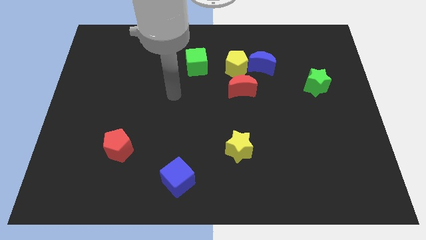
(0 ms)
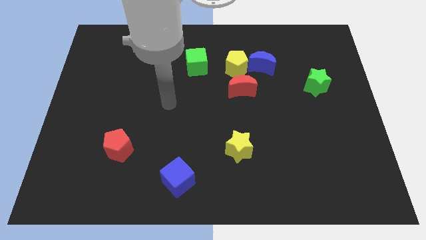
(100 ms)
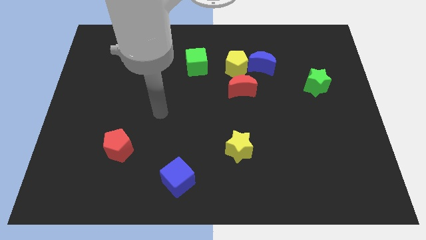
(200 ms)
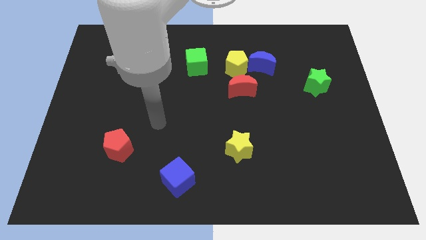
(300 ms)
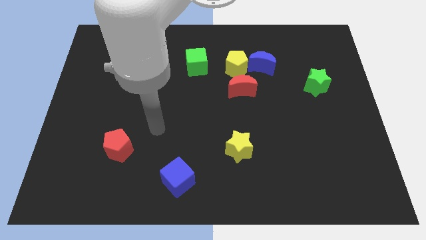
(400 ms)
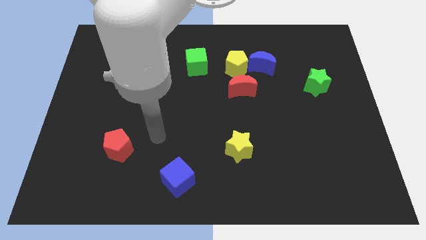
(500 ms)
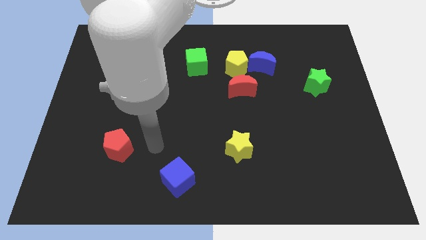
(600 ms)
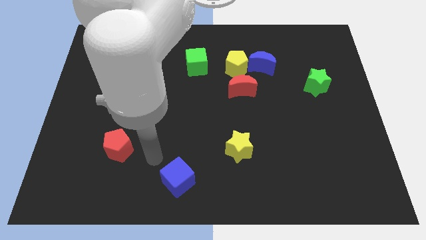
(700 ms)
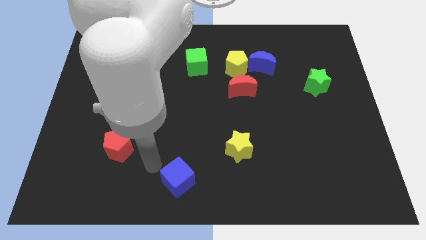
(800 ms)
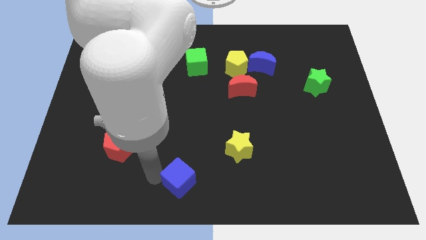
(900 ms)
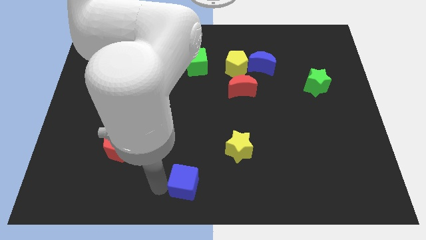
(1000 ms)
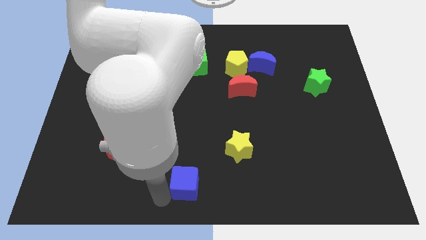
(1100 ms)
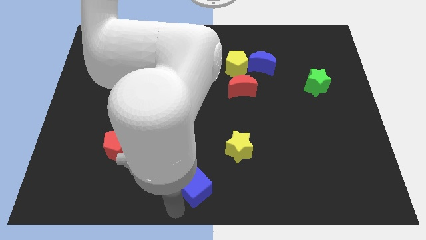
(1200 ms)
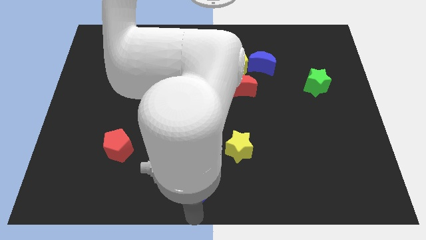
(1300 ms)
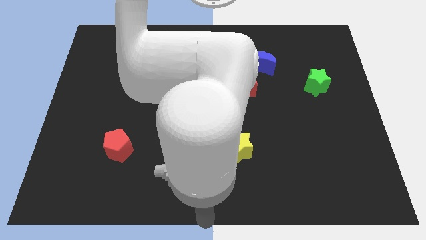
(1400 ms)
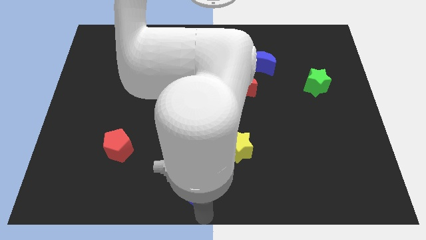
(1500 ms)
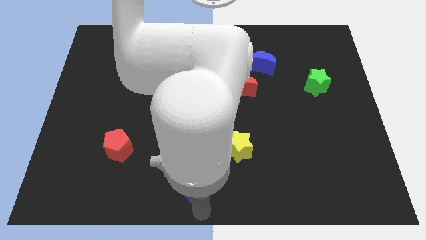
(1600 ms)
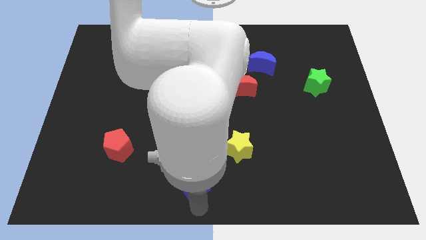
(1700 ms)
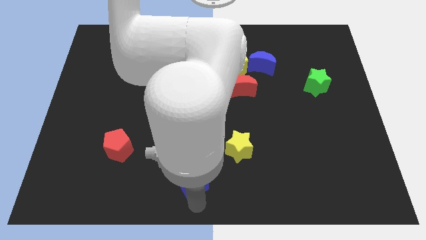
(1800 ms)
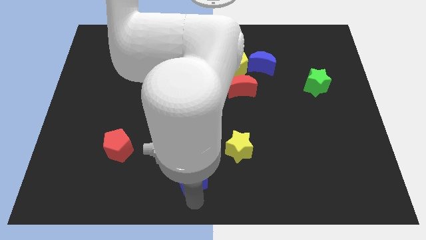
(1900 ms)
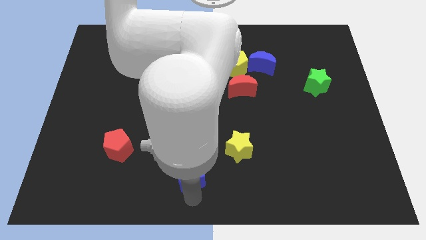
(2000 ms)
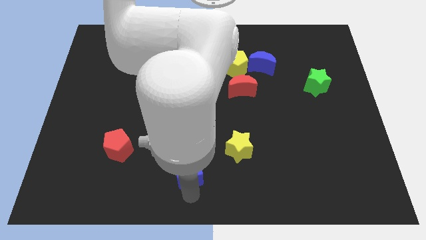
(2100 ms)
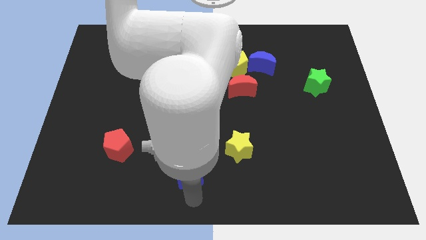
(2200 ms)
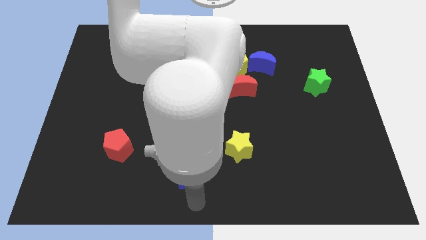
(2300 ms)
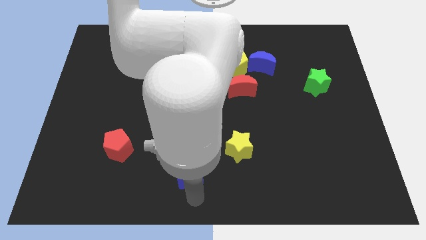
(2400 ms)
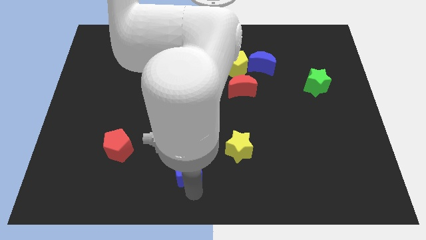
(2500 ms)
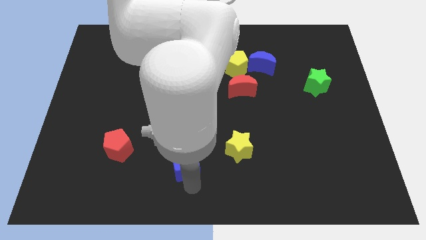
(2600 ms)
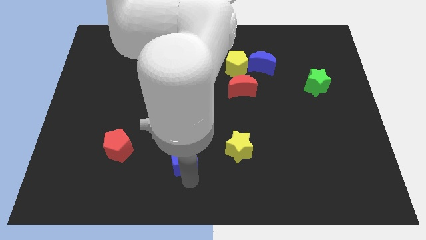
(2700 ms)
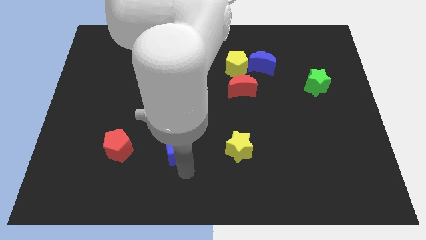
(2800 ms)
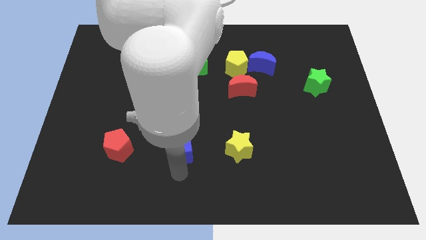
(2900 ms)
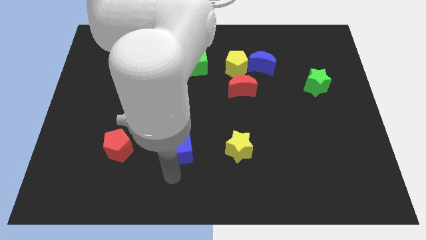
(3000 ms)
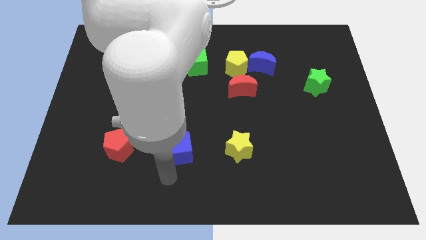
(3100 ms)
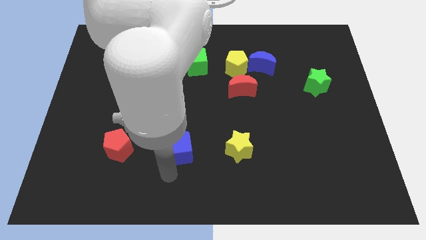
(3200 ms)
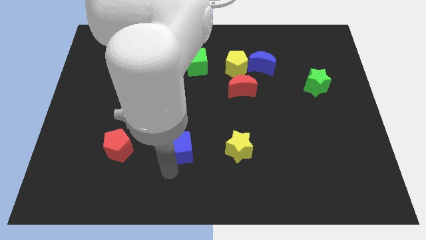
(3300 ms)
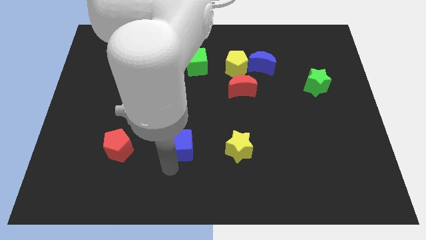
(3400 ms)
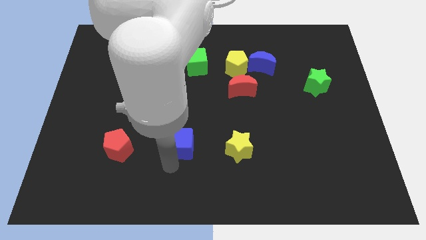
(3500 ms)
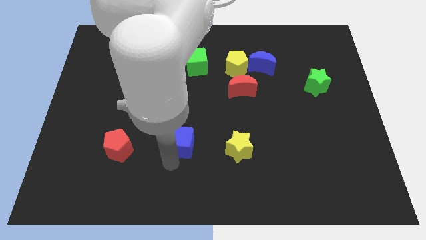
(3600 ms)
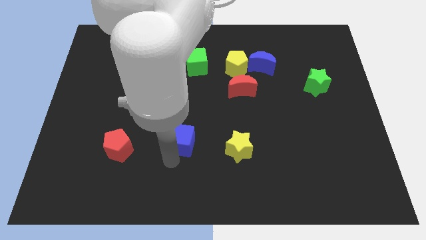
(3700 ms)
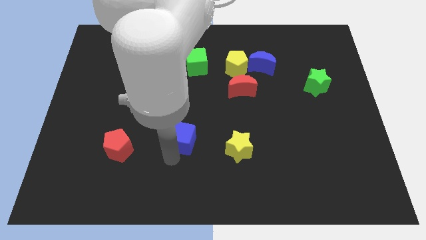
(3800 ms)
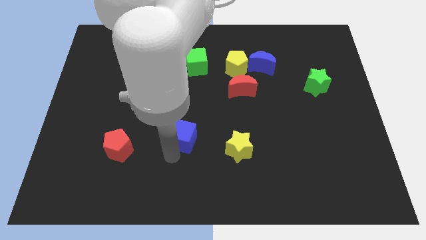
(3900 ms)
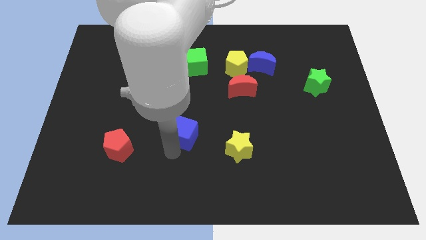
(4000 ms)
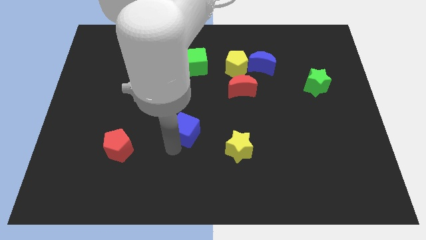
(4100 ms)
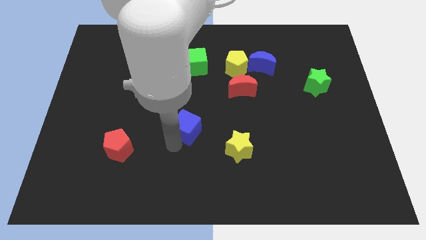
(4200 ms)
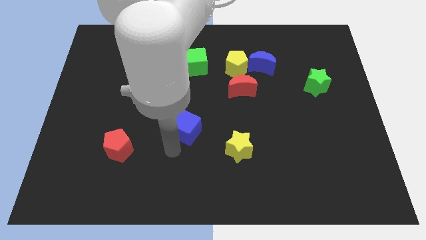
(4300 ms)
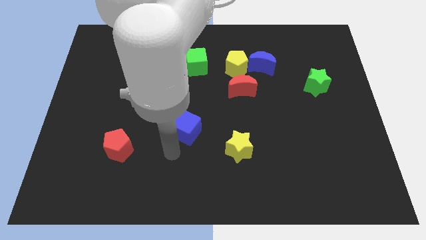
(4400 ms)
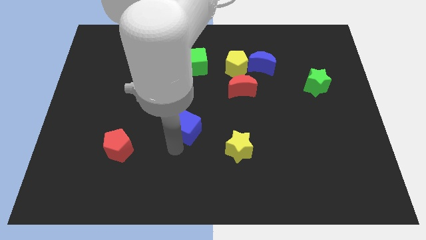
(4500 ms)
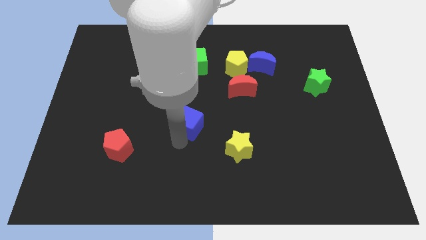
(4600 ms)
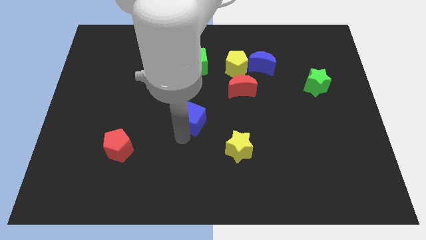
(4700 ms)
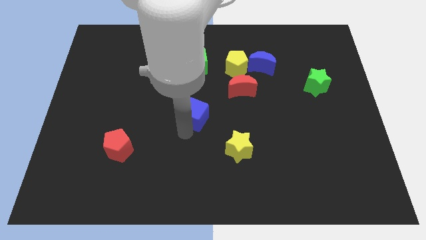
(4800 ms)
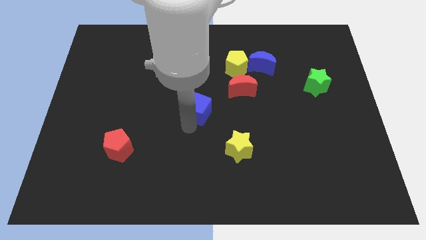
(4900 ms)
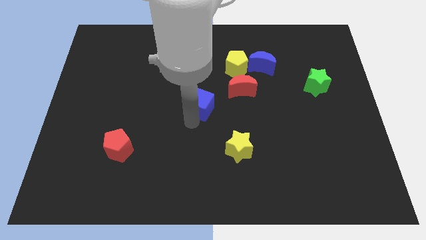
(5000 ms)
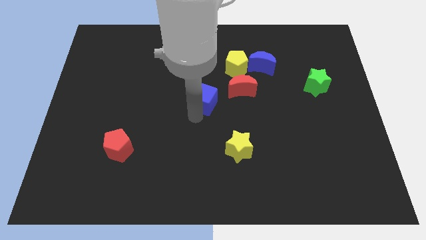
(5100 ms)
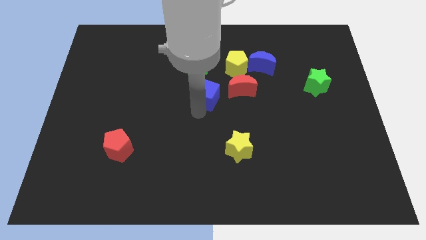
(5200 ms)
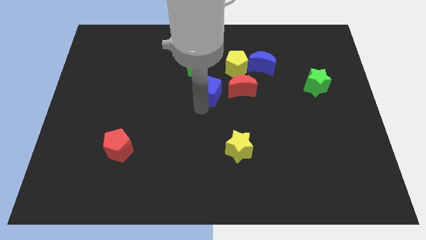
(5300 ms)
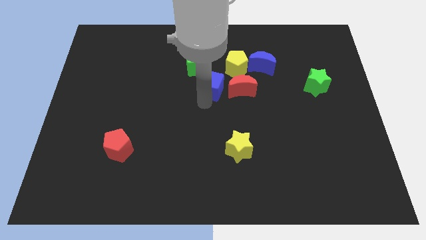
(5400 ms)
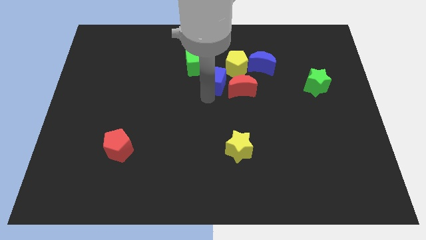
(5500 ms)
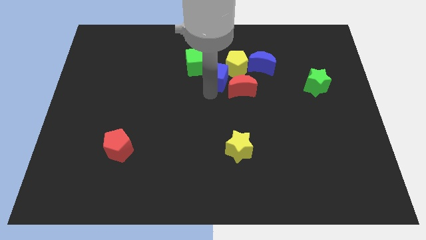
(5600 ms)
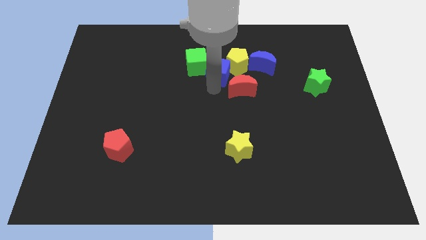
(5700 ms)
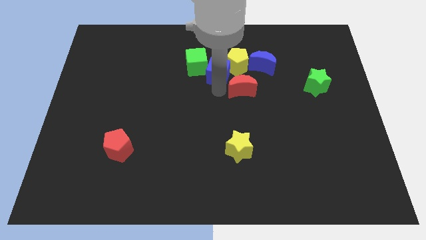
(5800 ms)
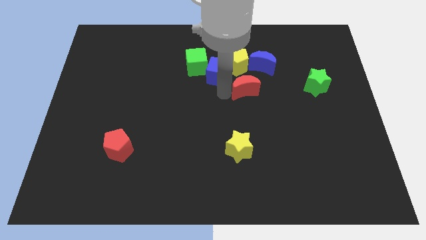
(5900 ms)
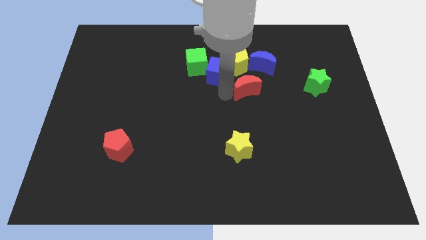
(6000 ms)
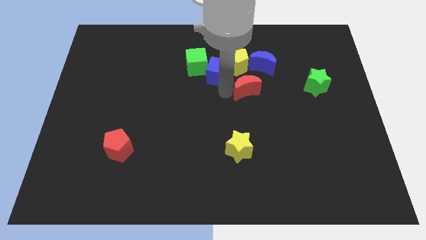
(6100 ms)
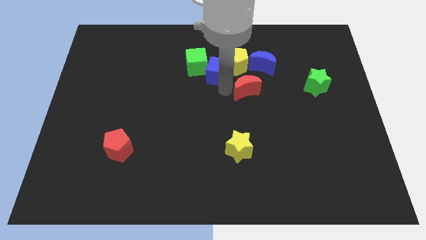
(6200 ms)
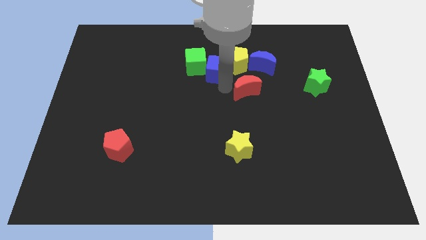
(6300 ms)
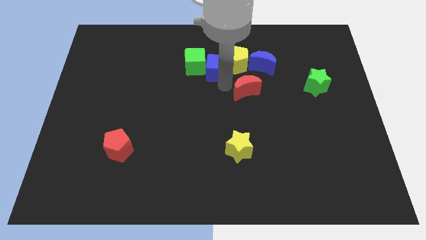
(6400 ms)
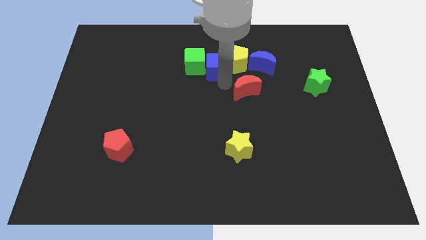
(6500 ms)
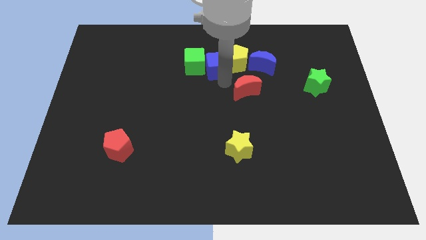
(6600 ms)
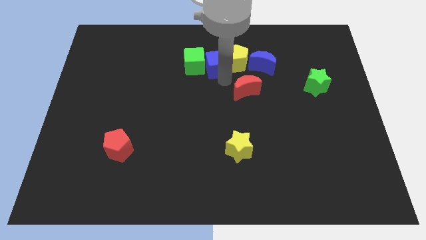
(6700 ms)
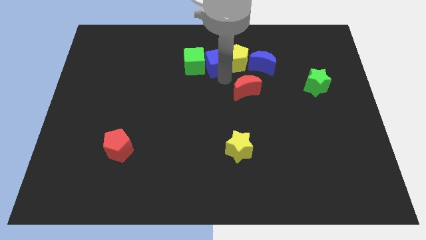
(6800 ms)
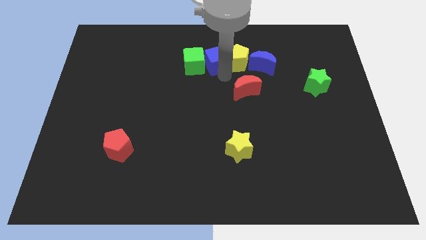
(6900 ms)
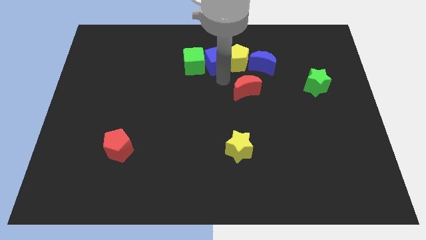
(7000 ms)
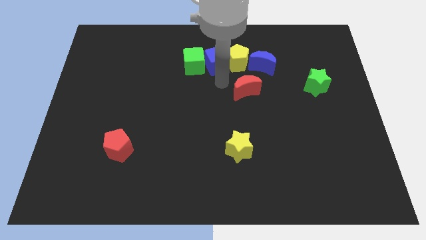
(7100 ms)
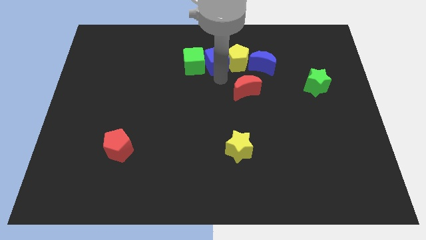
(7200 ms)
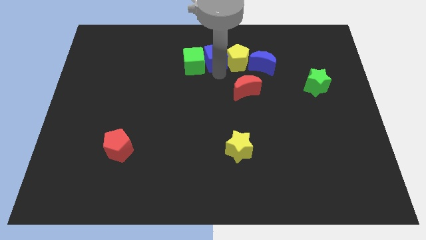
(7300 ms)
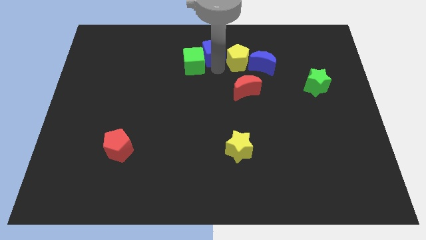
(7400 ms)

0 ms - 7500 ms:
push the blue cube to the towards your base
